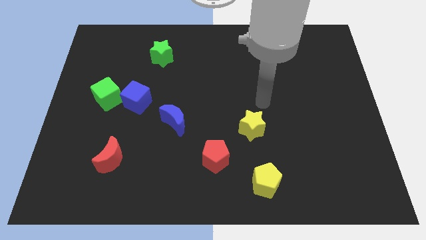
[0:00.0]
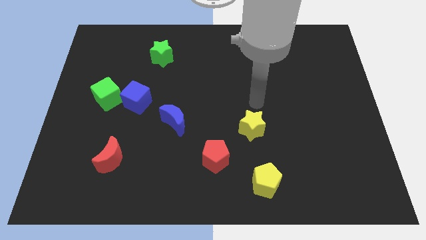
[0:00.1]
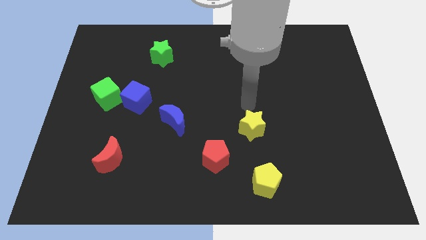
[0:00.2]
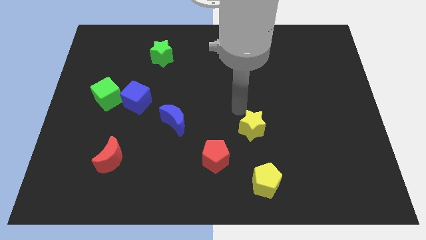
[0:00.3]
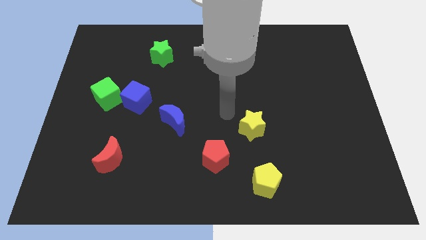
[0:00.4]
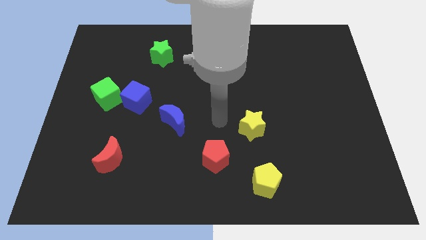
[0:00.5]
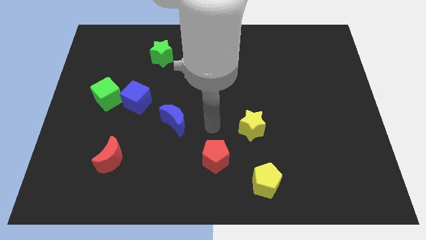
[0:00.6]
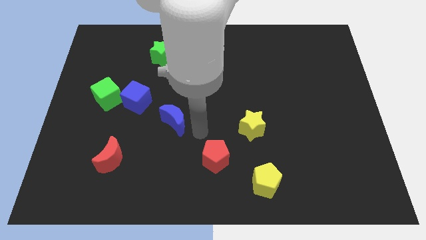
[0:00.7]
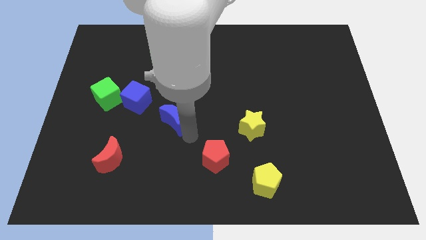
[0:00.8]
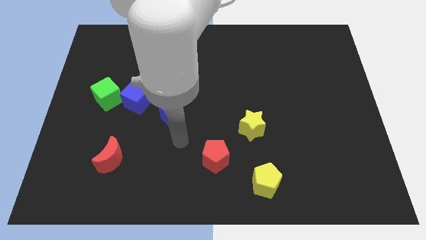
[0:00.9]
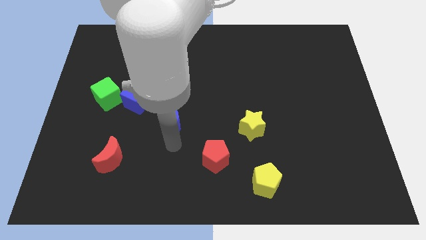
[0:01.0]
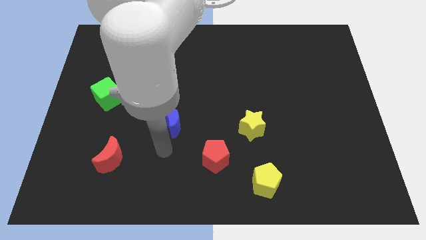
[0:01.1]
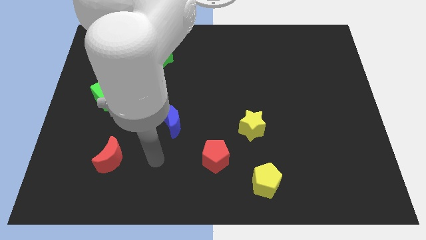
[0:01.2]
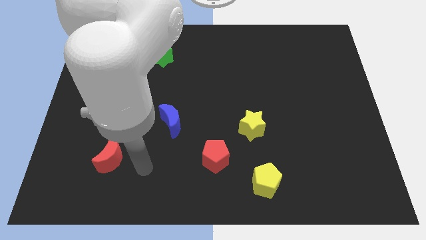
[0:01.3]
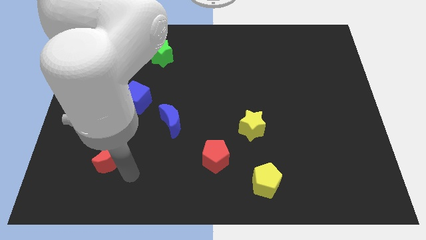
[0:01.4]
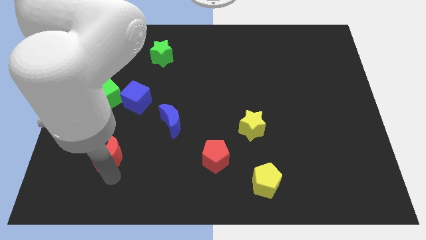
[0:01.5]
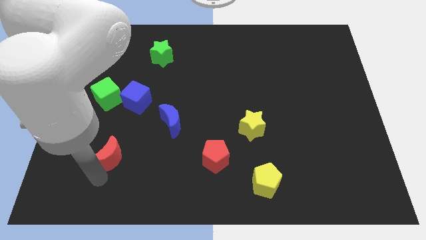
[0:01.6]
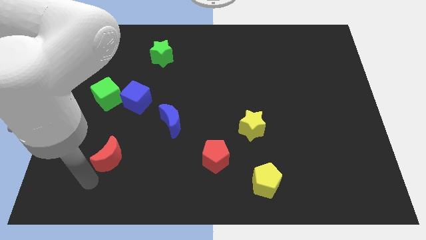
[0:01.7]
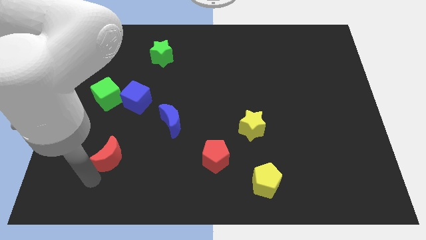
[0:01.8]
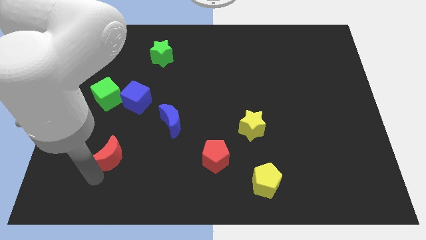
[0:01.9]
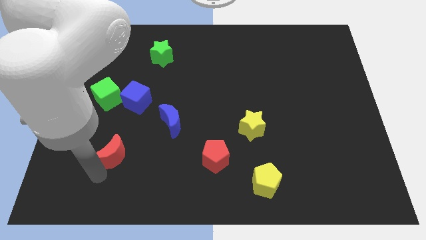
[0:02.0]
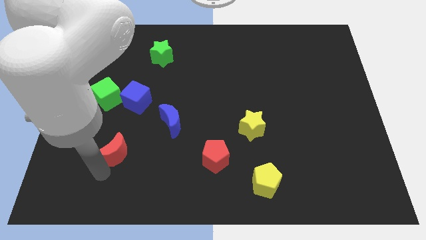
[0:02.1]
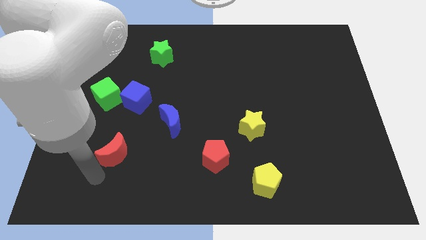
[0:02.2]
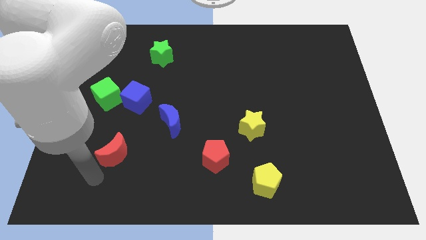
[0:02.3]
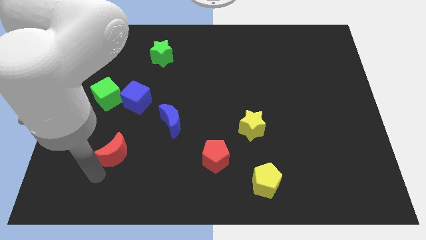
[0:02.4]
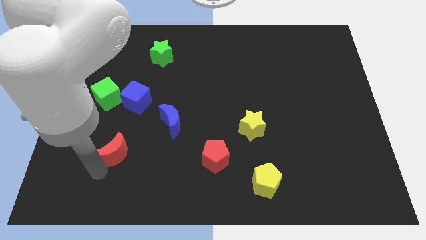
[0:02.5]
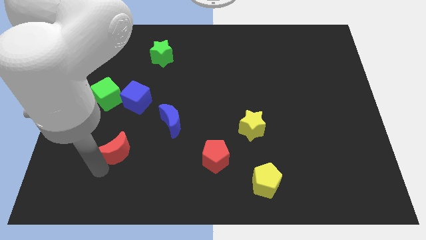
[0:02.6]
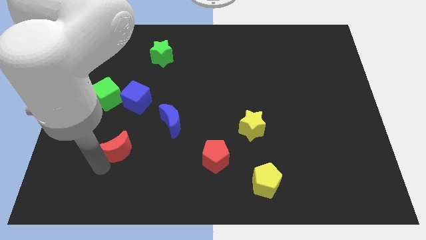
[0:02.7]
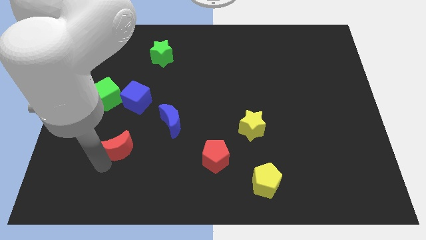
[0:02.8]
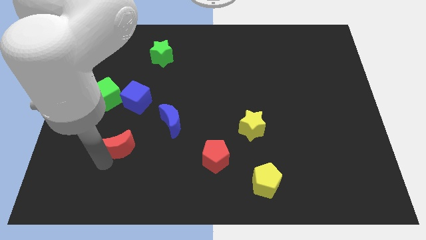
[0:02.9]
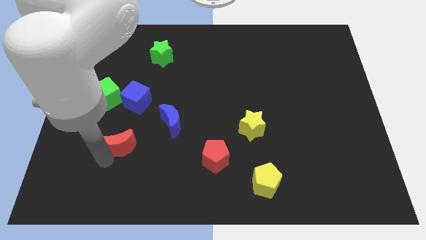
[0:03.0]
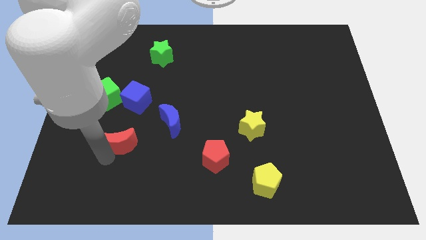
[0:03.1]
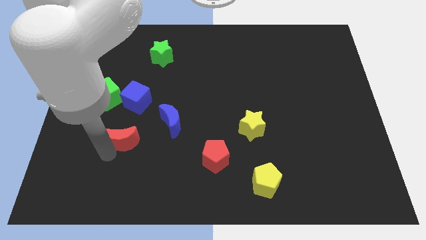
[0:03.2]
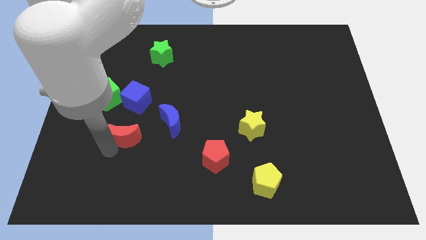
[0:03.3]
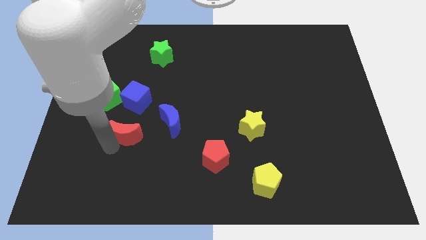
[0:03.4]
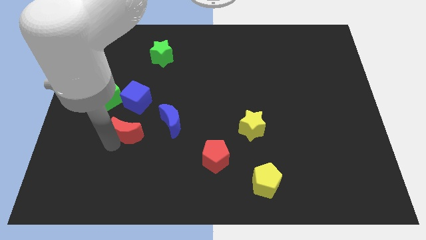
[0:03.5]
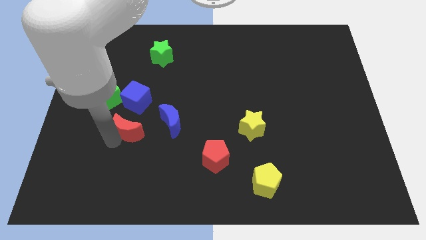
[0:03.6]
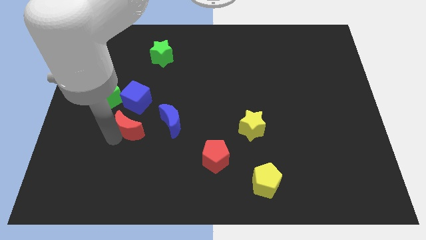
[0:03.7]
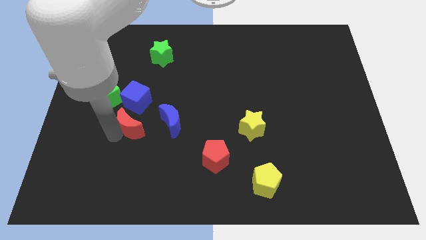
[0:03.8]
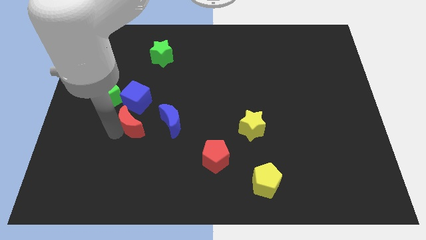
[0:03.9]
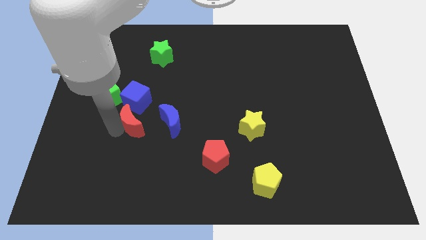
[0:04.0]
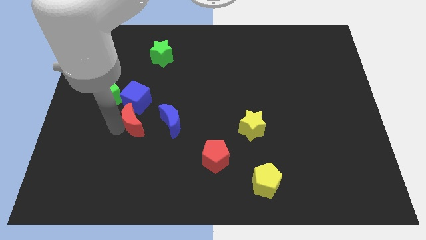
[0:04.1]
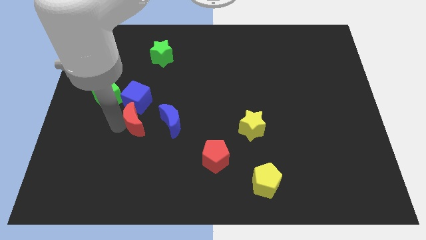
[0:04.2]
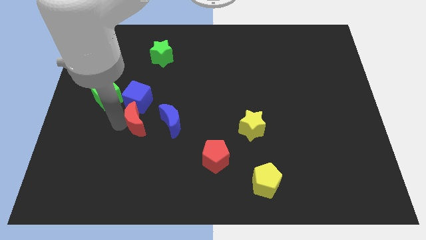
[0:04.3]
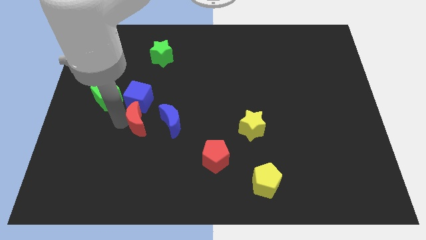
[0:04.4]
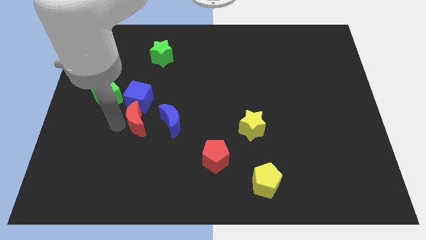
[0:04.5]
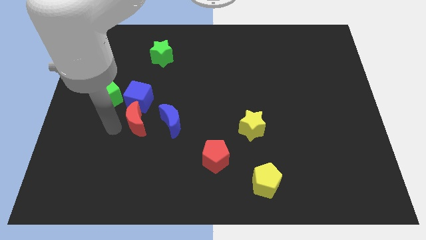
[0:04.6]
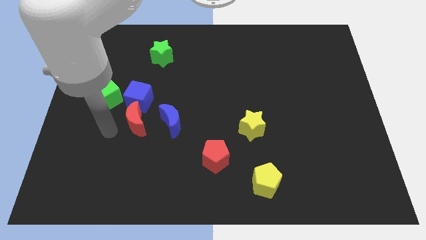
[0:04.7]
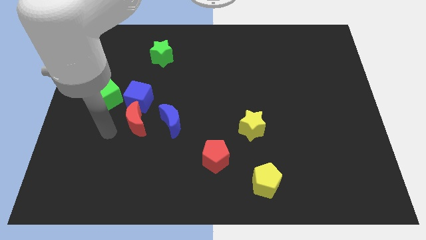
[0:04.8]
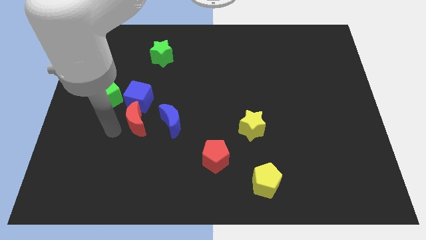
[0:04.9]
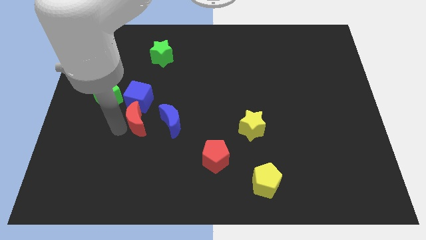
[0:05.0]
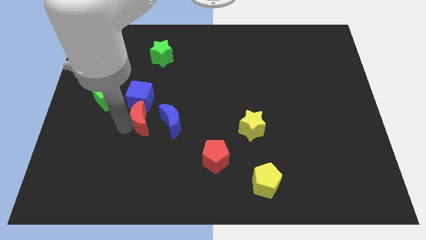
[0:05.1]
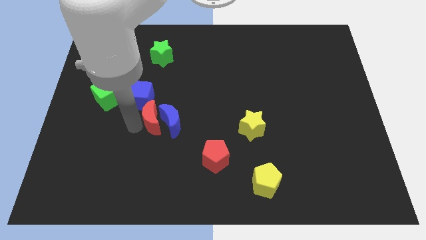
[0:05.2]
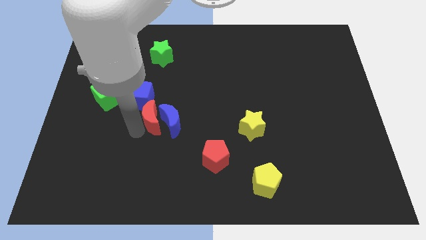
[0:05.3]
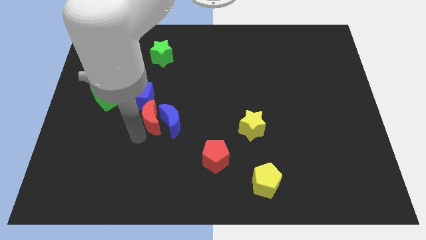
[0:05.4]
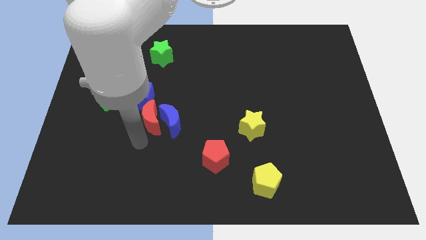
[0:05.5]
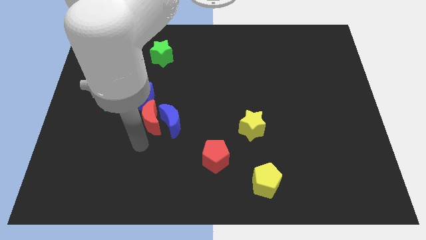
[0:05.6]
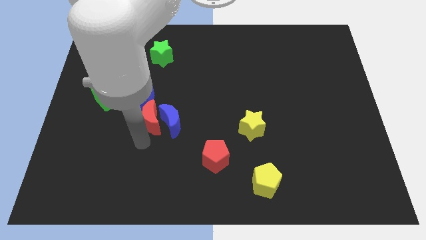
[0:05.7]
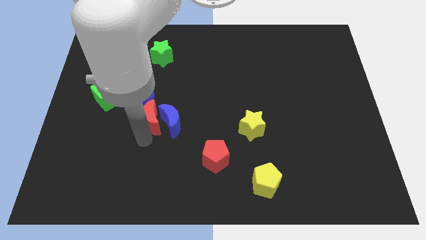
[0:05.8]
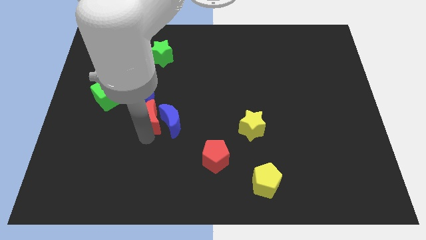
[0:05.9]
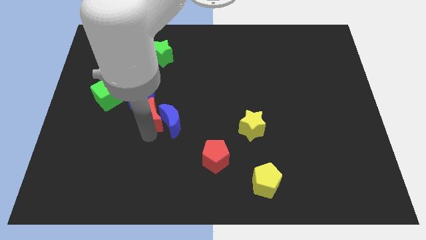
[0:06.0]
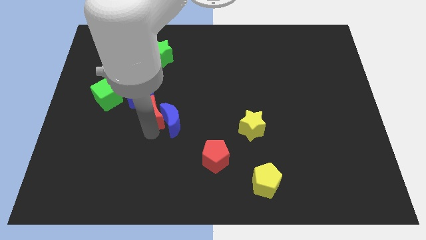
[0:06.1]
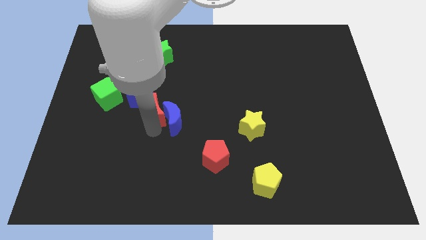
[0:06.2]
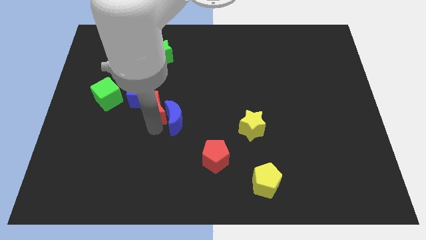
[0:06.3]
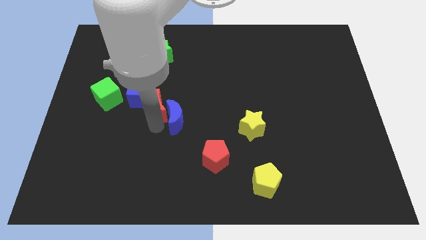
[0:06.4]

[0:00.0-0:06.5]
move the red moon to the top of the blue moon

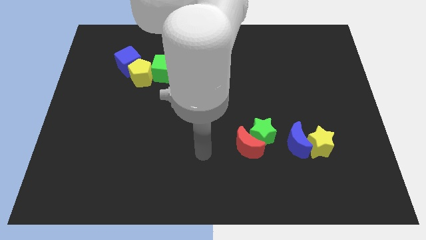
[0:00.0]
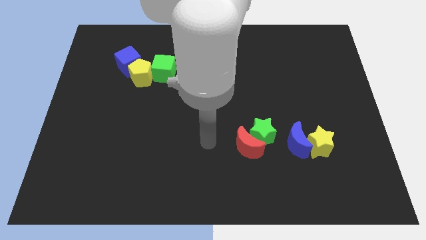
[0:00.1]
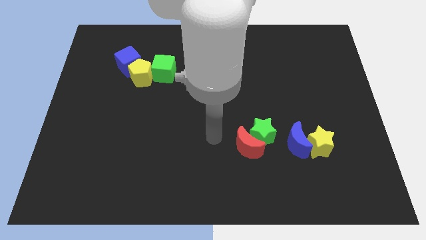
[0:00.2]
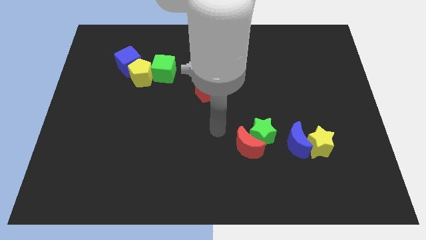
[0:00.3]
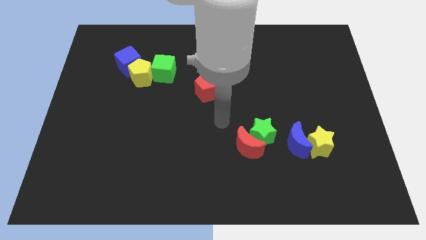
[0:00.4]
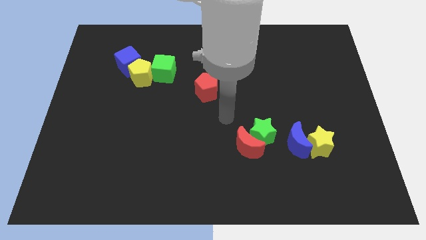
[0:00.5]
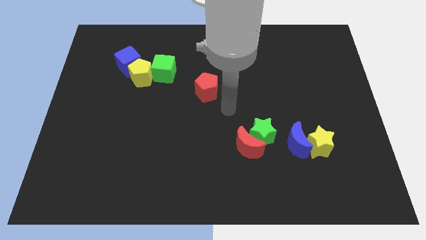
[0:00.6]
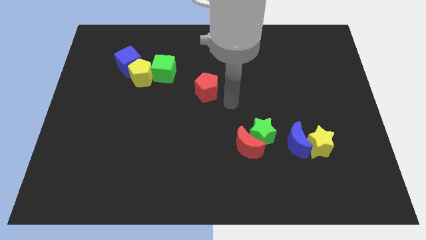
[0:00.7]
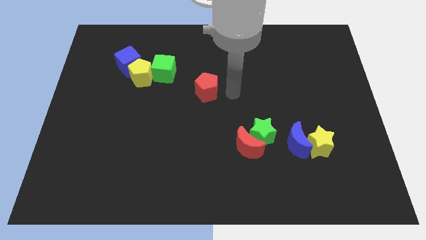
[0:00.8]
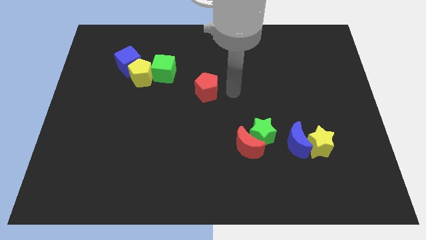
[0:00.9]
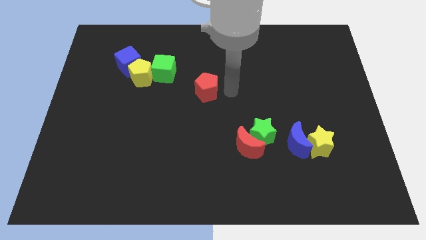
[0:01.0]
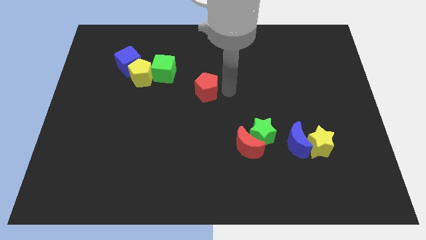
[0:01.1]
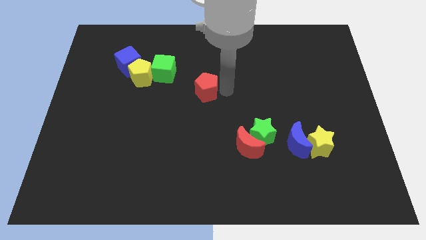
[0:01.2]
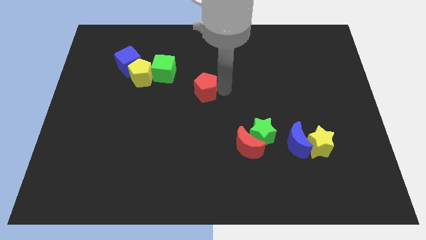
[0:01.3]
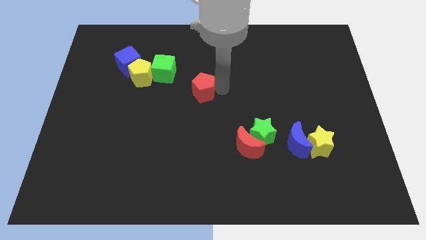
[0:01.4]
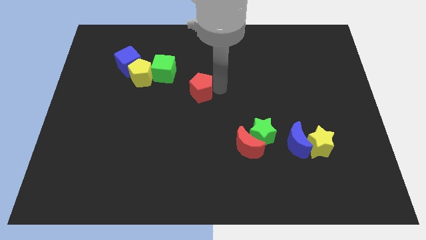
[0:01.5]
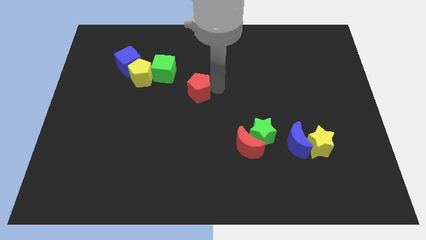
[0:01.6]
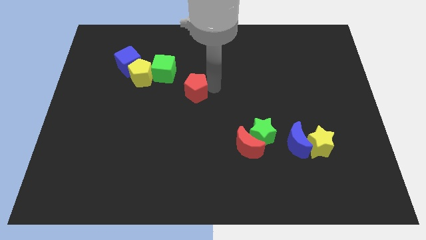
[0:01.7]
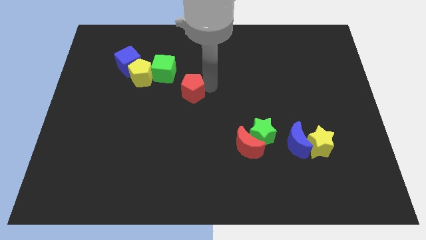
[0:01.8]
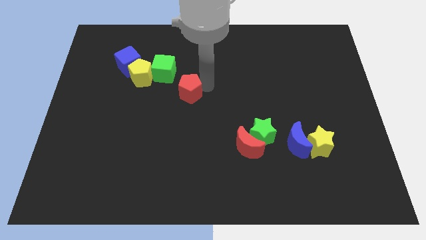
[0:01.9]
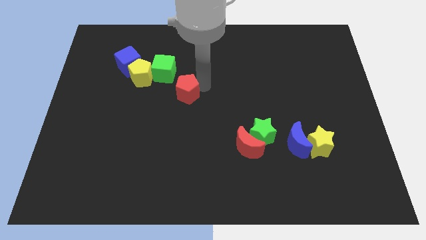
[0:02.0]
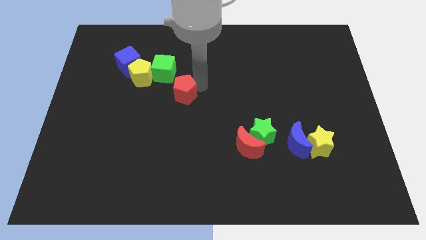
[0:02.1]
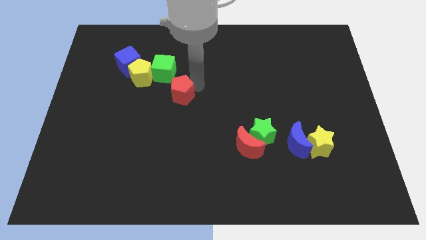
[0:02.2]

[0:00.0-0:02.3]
put the red pentagon to the bottom right of the yellow pentagon
